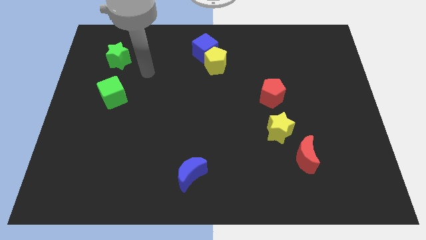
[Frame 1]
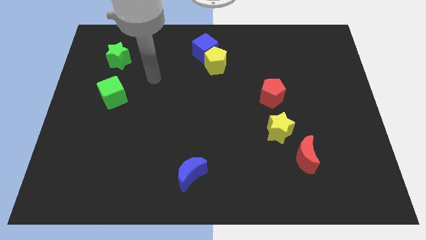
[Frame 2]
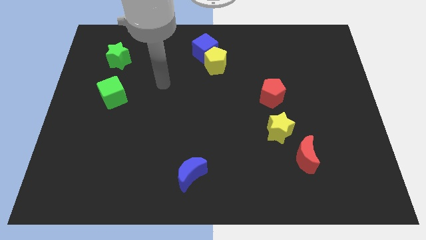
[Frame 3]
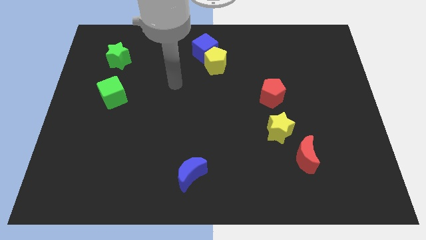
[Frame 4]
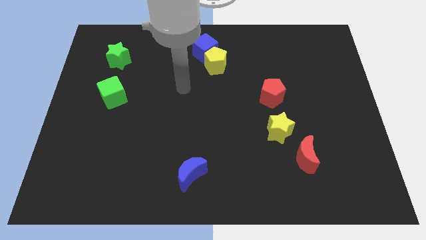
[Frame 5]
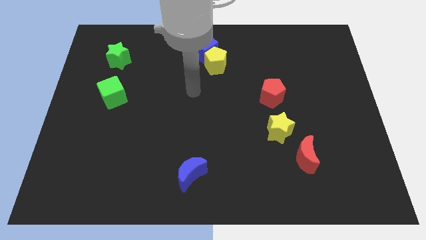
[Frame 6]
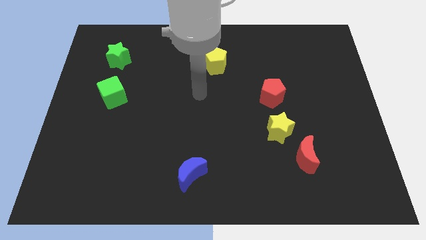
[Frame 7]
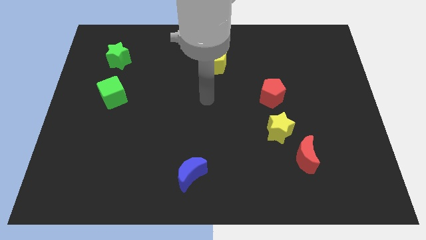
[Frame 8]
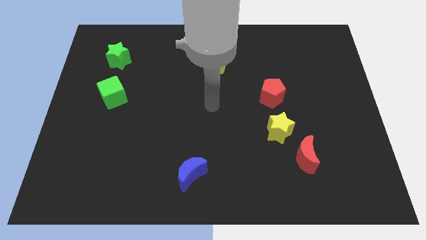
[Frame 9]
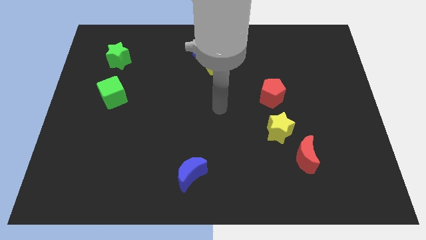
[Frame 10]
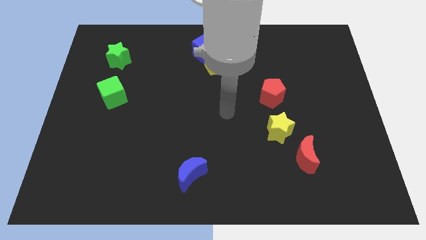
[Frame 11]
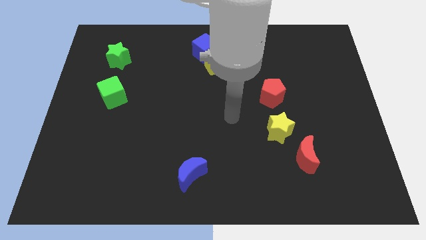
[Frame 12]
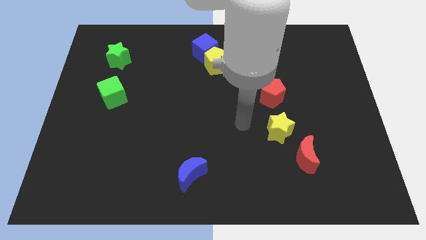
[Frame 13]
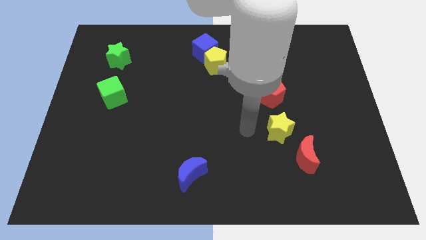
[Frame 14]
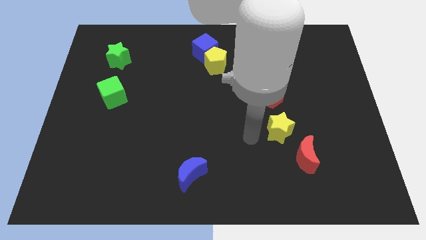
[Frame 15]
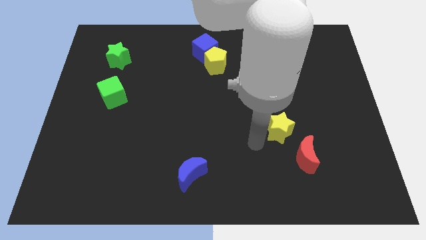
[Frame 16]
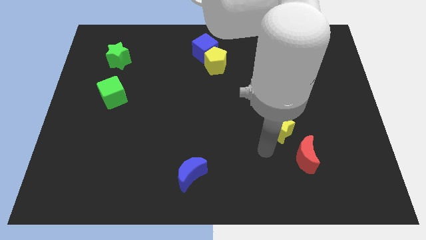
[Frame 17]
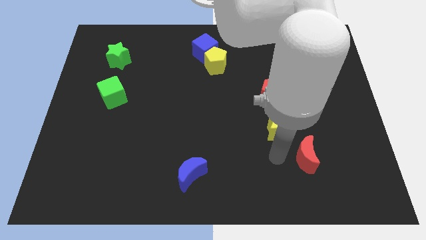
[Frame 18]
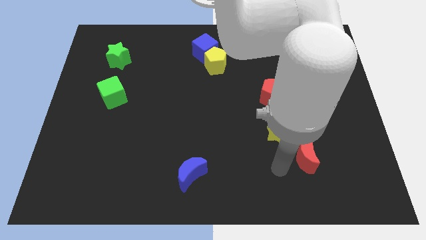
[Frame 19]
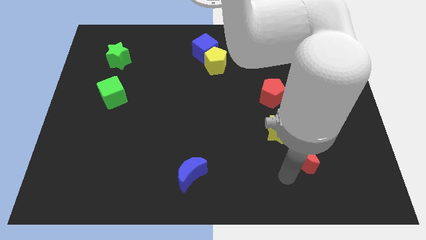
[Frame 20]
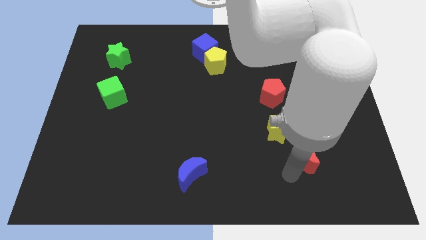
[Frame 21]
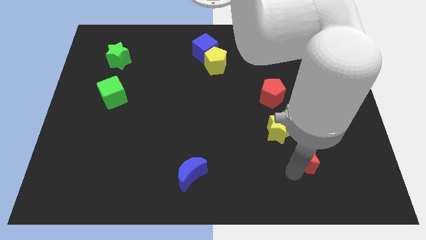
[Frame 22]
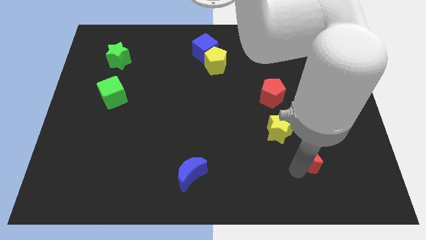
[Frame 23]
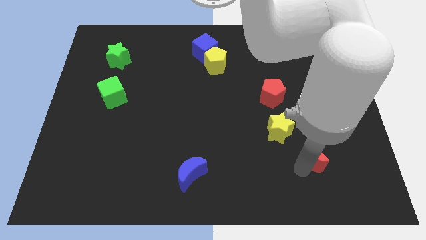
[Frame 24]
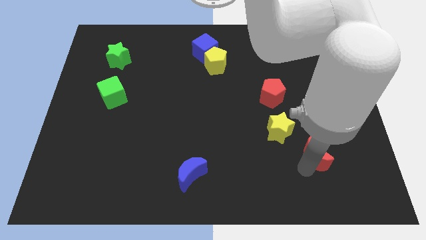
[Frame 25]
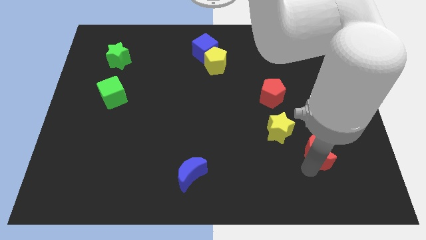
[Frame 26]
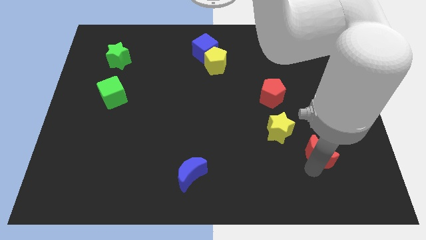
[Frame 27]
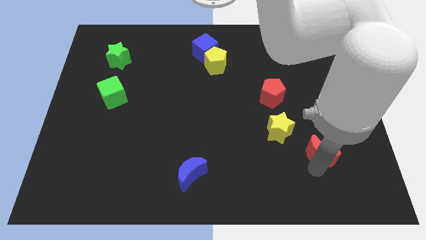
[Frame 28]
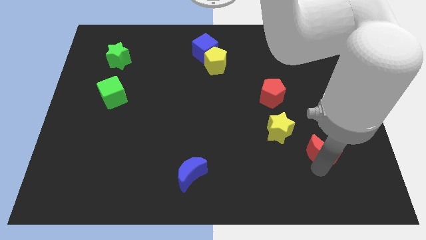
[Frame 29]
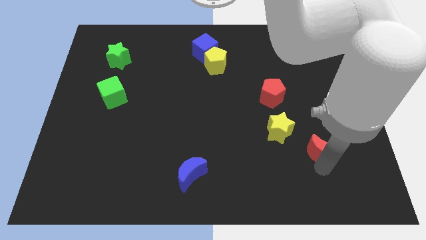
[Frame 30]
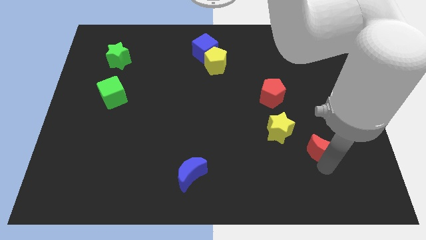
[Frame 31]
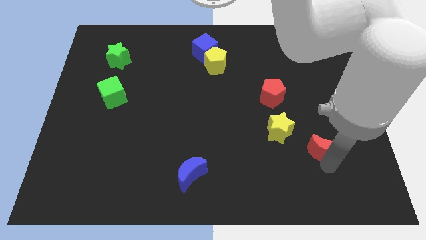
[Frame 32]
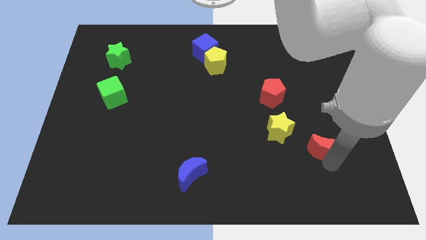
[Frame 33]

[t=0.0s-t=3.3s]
slide the red moon just right of the yellow star

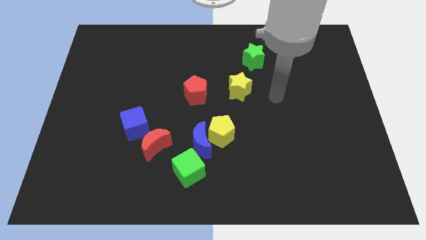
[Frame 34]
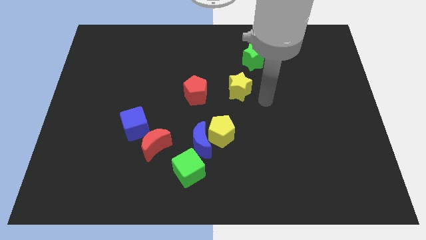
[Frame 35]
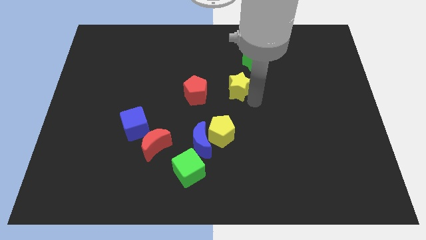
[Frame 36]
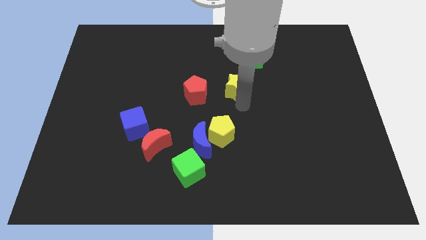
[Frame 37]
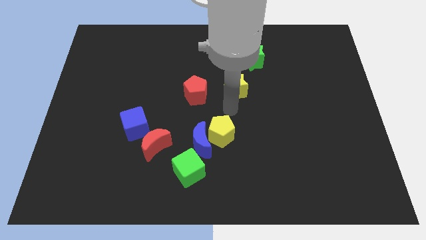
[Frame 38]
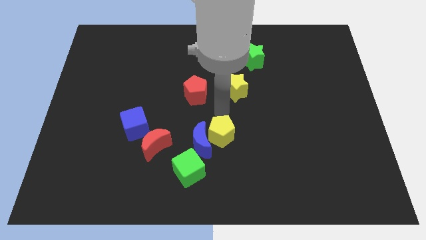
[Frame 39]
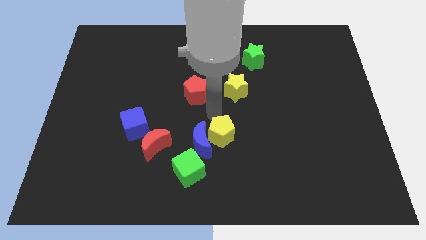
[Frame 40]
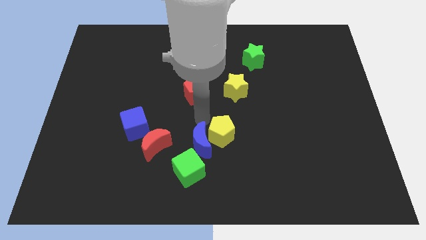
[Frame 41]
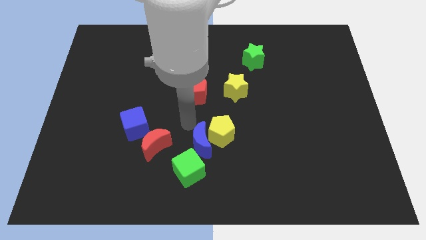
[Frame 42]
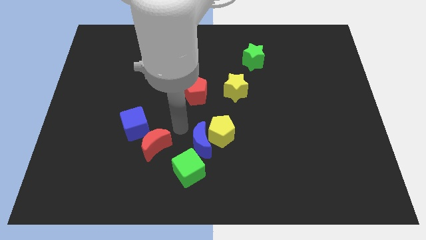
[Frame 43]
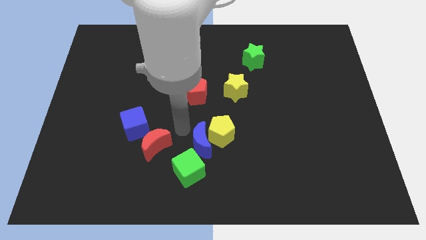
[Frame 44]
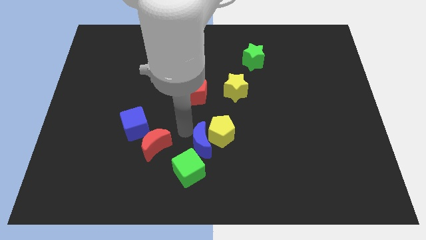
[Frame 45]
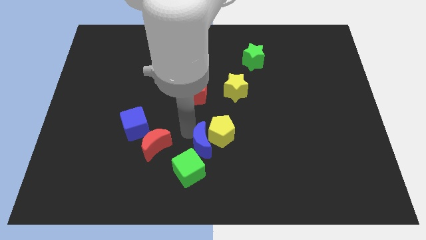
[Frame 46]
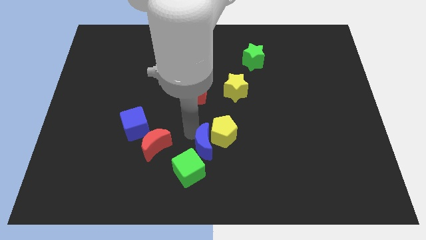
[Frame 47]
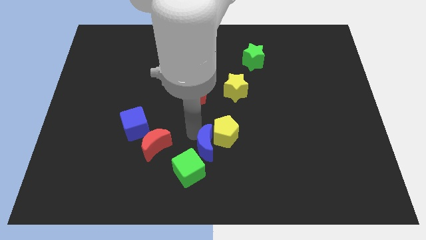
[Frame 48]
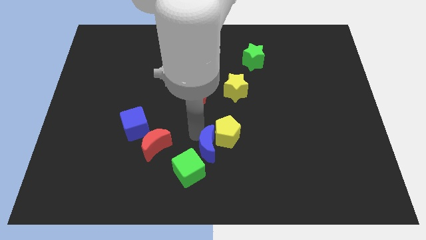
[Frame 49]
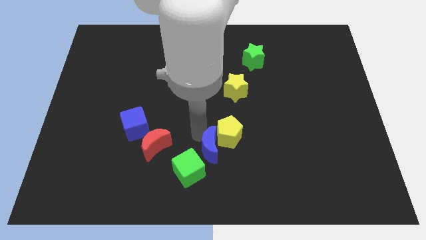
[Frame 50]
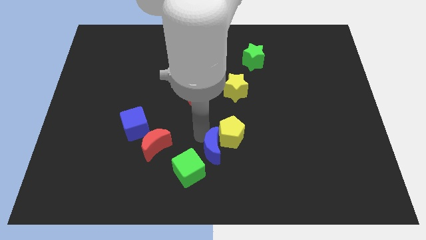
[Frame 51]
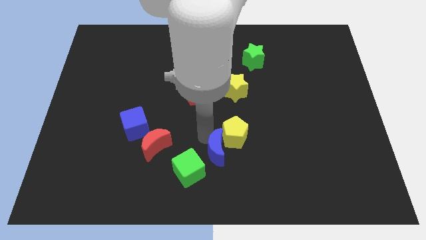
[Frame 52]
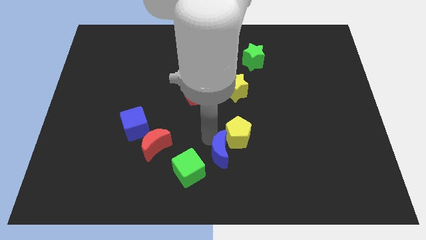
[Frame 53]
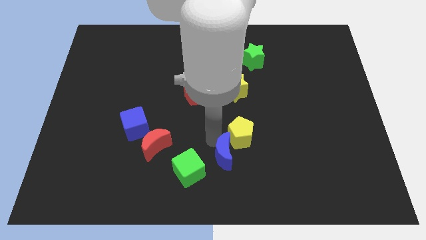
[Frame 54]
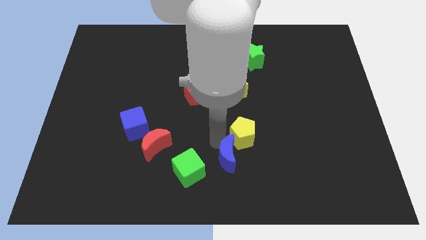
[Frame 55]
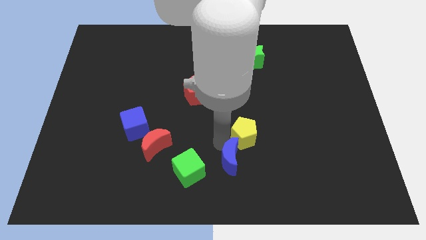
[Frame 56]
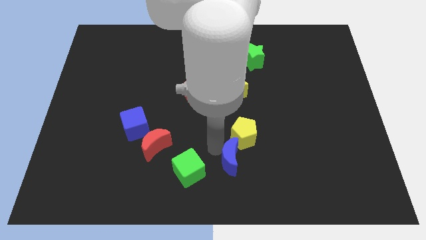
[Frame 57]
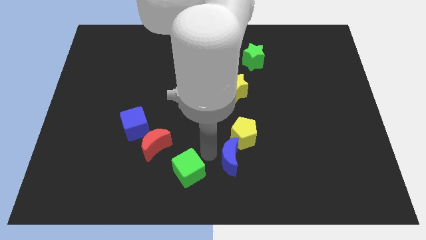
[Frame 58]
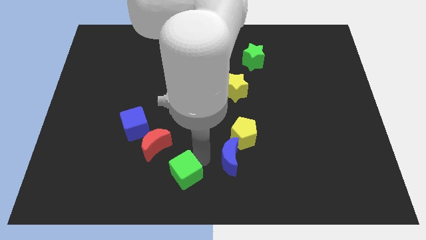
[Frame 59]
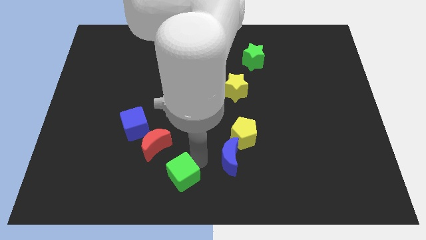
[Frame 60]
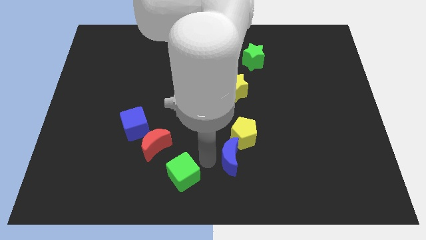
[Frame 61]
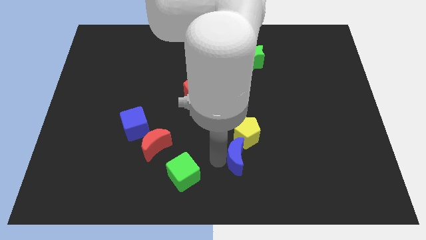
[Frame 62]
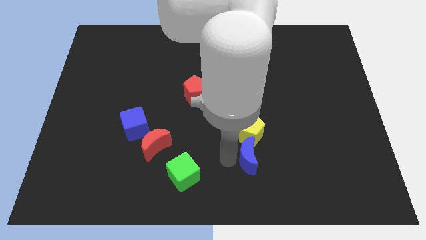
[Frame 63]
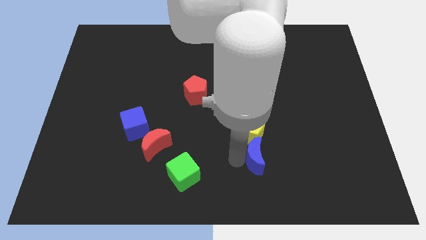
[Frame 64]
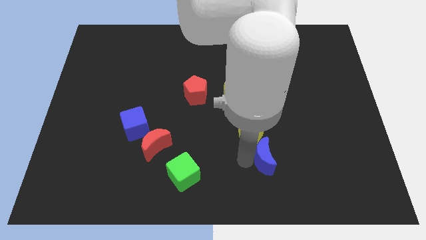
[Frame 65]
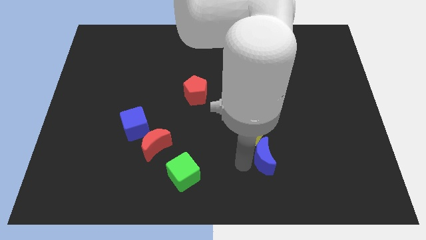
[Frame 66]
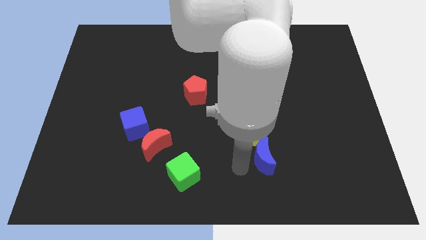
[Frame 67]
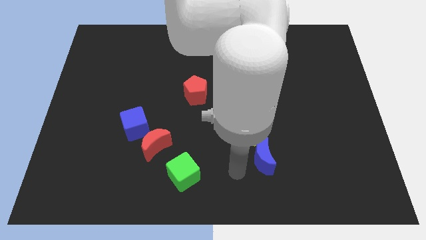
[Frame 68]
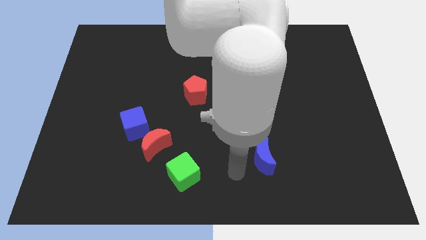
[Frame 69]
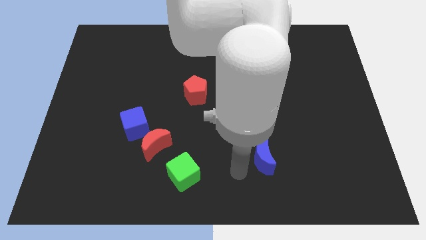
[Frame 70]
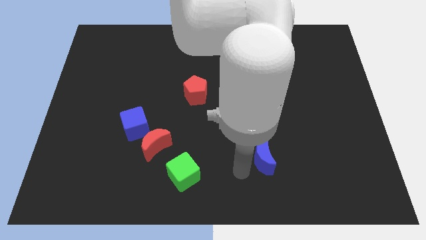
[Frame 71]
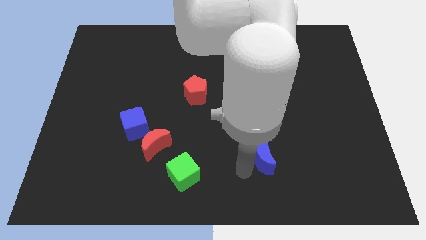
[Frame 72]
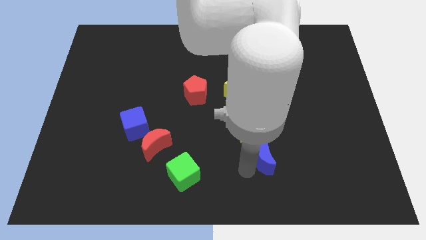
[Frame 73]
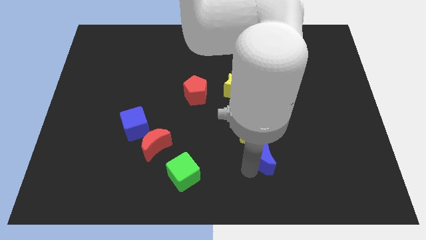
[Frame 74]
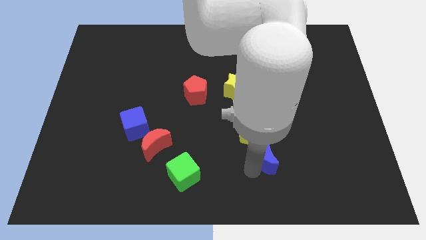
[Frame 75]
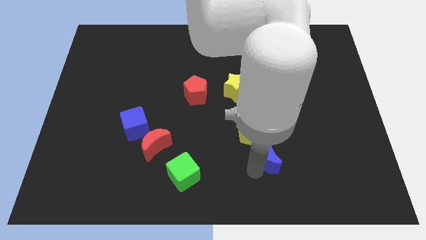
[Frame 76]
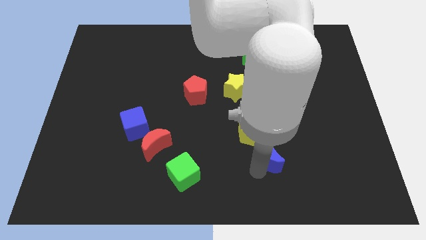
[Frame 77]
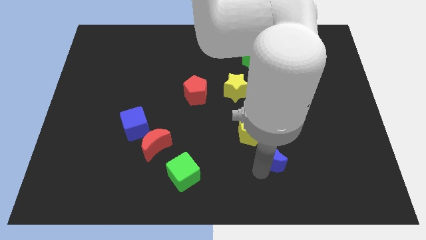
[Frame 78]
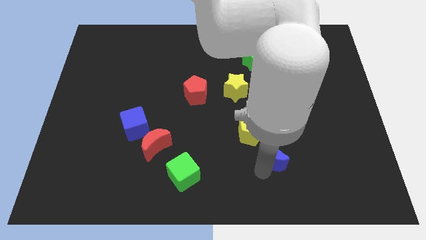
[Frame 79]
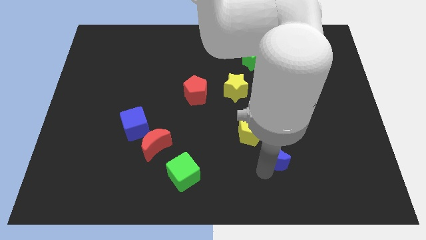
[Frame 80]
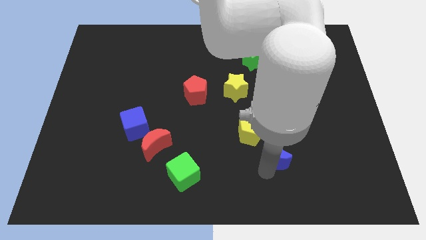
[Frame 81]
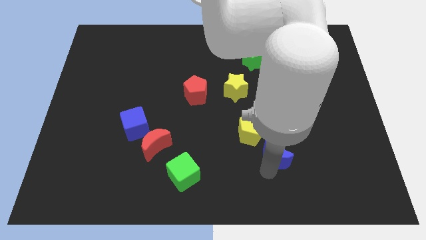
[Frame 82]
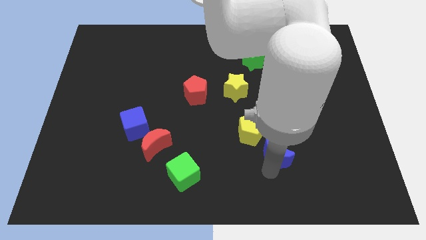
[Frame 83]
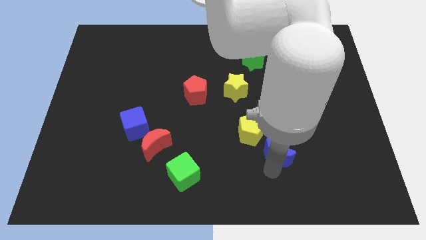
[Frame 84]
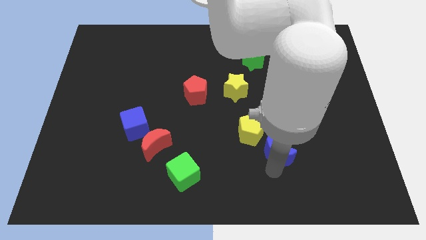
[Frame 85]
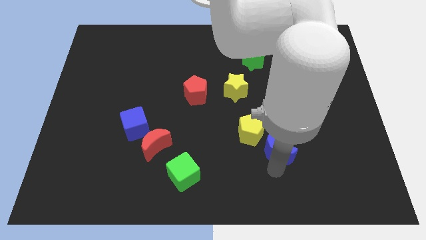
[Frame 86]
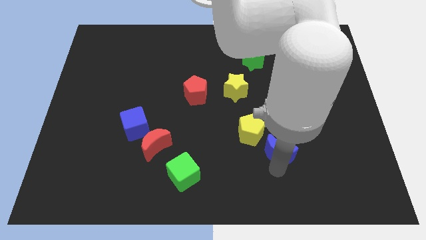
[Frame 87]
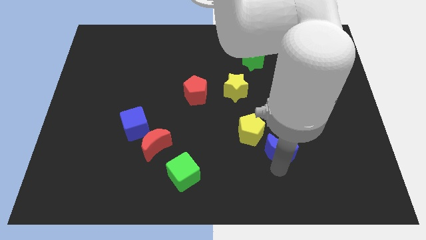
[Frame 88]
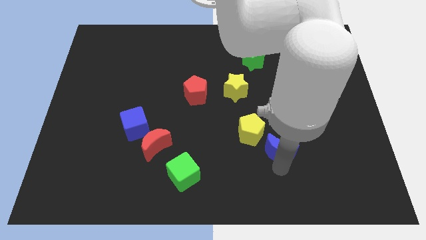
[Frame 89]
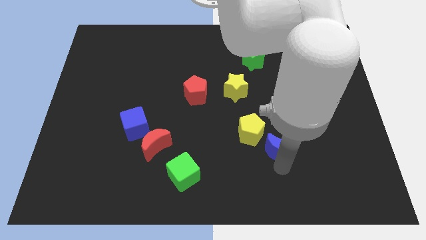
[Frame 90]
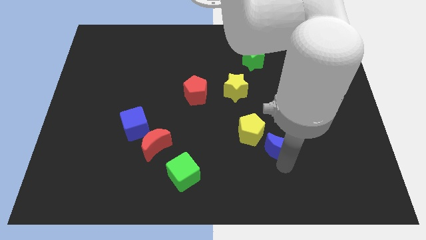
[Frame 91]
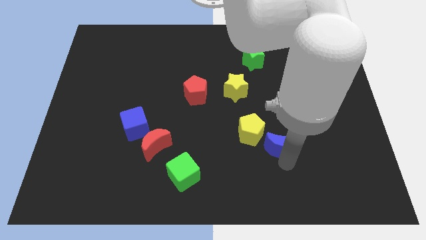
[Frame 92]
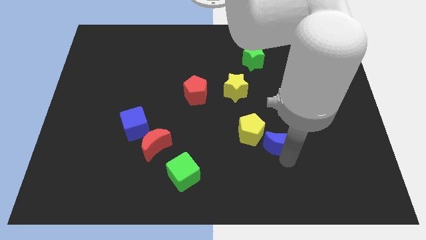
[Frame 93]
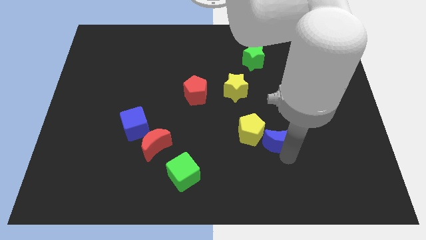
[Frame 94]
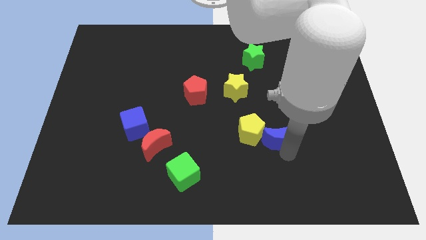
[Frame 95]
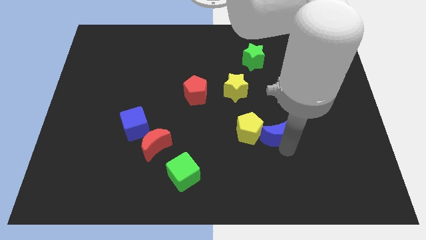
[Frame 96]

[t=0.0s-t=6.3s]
slide the blue moon diagonally down and to the right of the yellow pentagon
